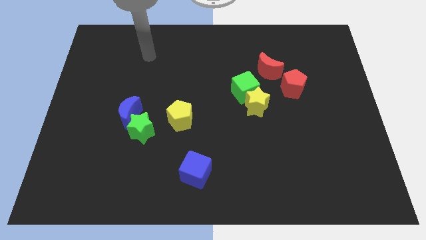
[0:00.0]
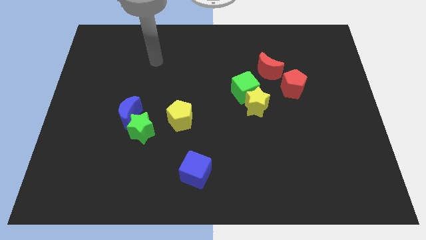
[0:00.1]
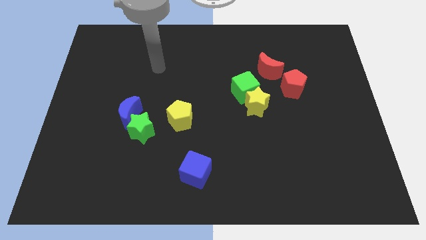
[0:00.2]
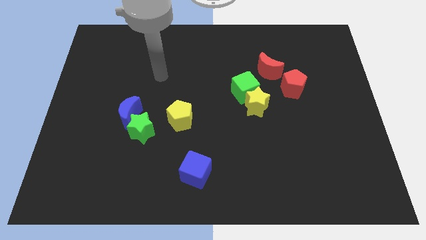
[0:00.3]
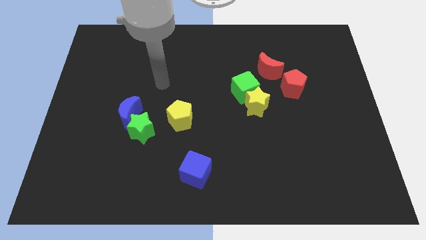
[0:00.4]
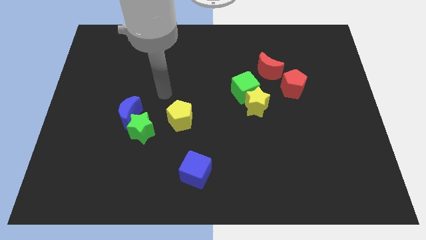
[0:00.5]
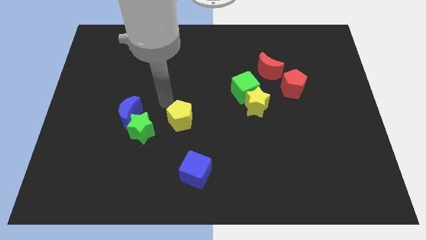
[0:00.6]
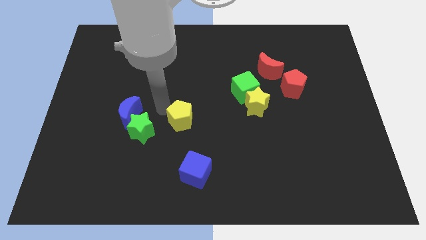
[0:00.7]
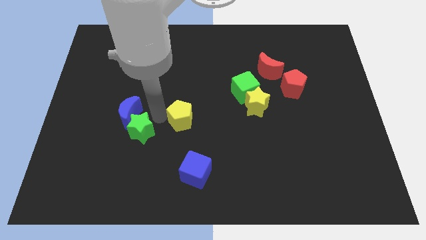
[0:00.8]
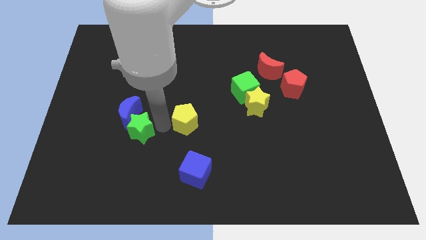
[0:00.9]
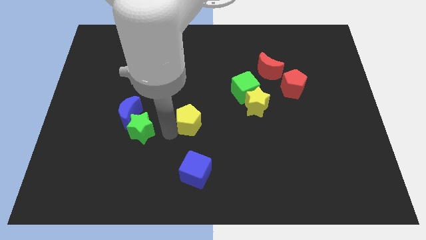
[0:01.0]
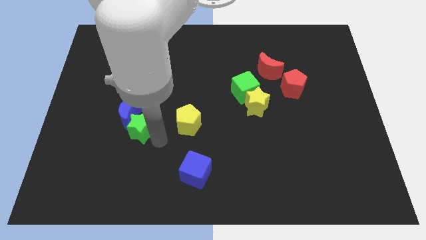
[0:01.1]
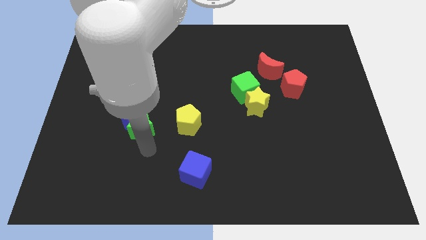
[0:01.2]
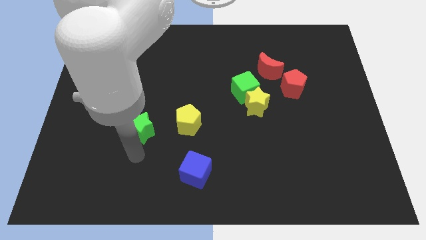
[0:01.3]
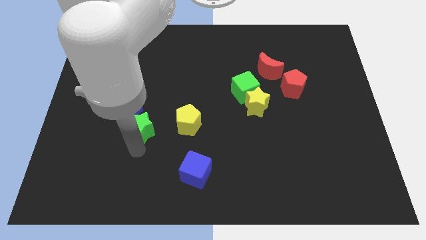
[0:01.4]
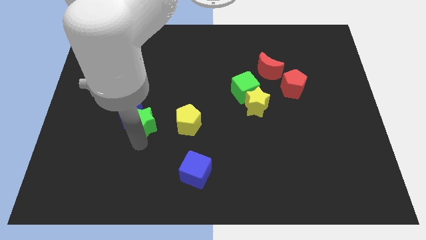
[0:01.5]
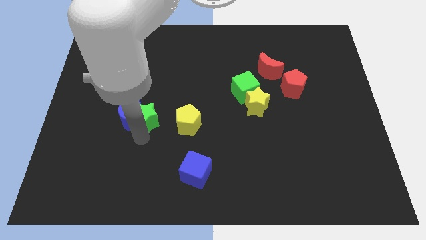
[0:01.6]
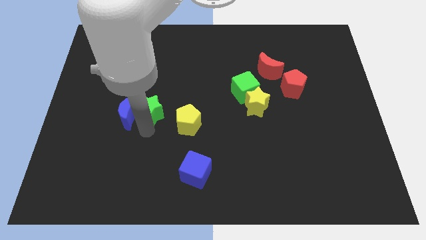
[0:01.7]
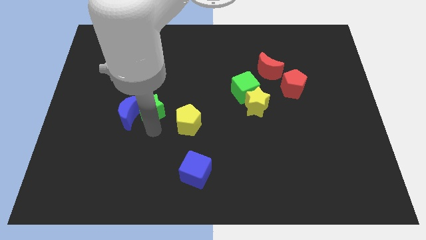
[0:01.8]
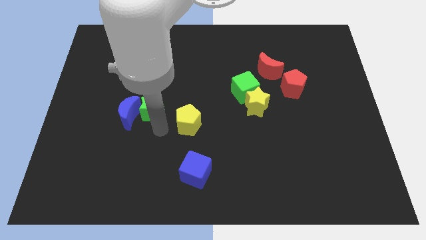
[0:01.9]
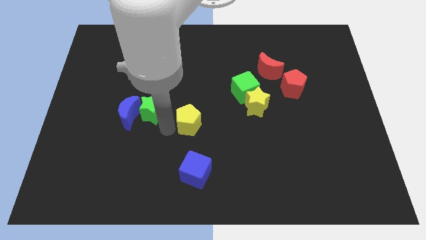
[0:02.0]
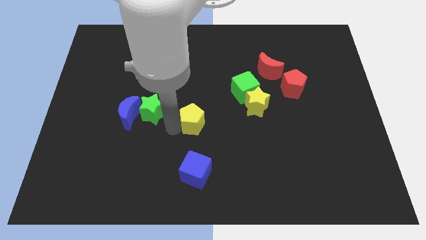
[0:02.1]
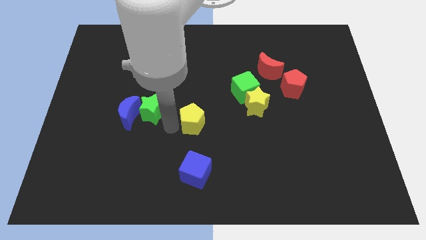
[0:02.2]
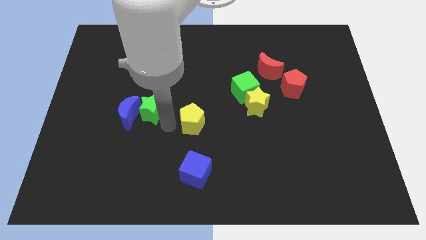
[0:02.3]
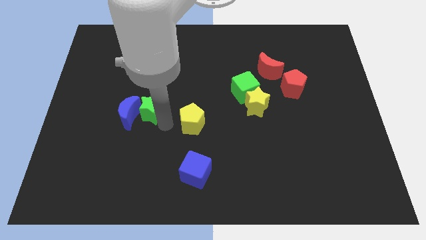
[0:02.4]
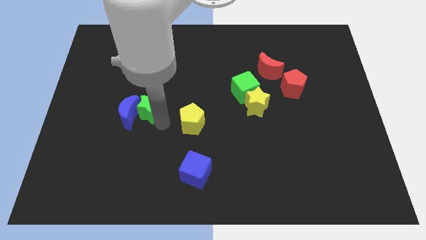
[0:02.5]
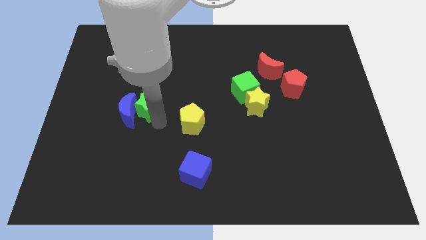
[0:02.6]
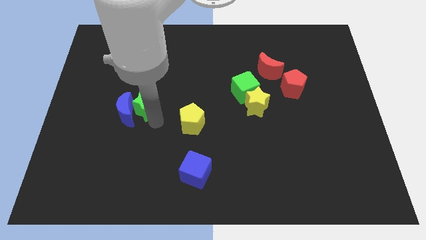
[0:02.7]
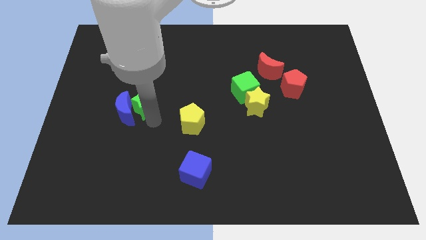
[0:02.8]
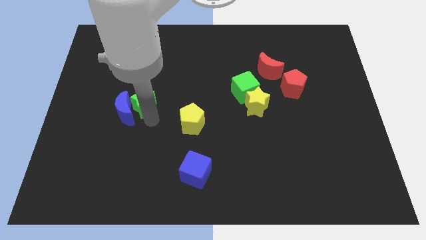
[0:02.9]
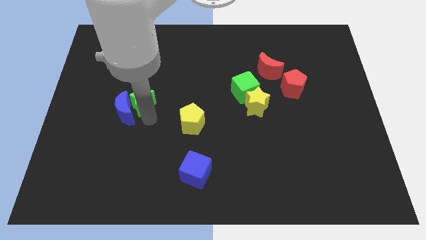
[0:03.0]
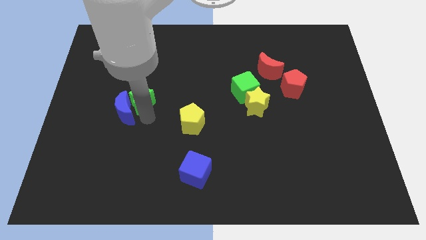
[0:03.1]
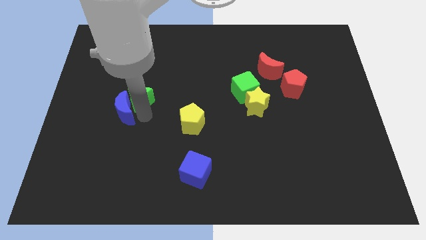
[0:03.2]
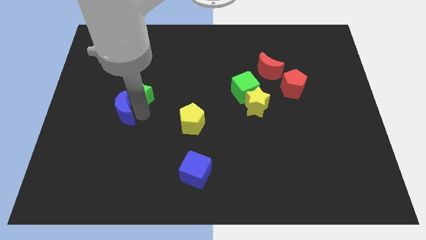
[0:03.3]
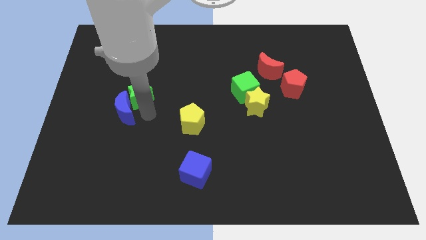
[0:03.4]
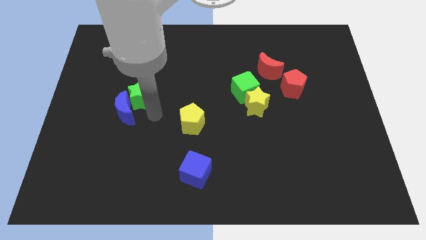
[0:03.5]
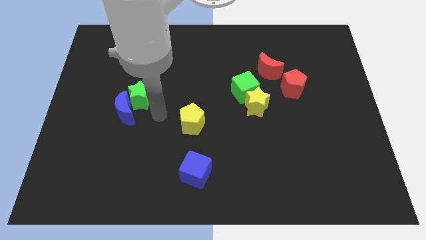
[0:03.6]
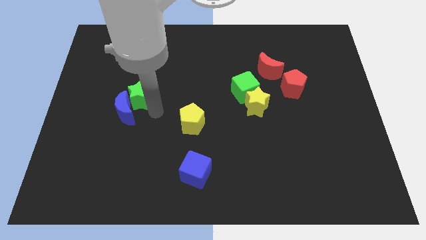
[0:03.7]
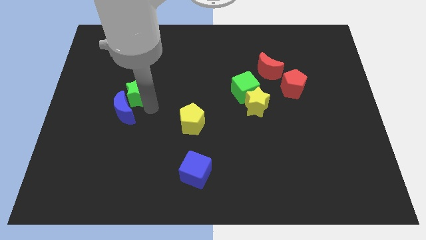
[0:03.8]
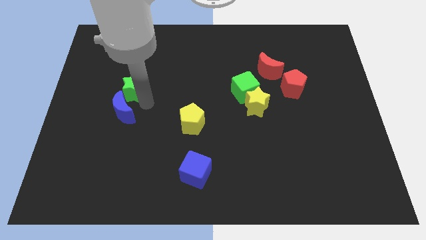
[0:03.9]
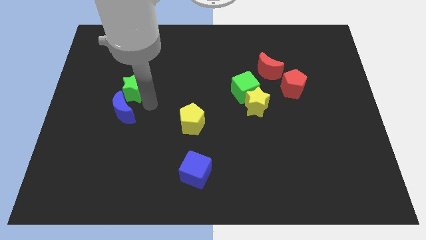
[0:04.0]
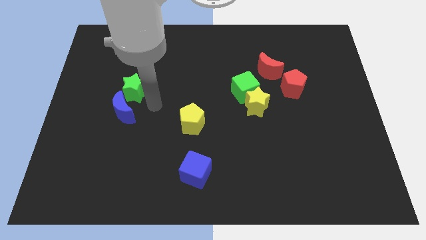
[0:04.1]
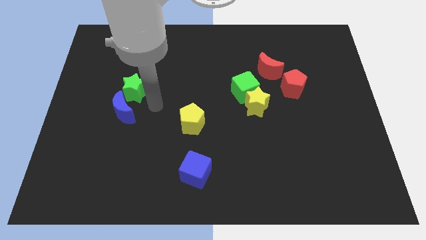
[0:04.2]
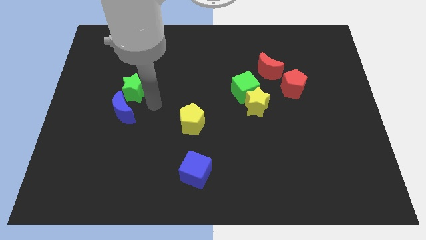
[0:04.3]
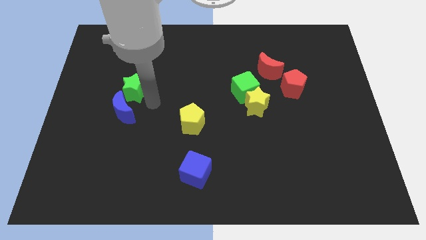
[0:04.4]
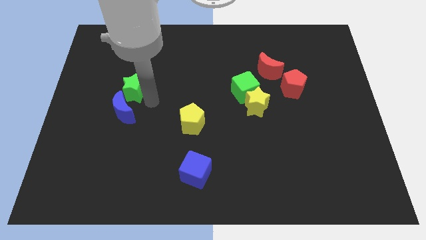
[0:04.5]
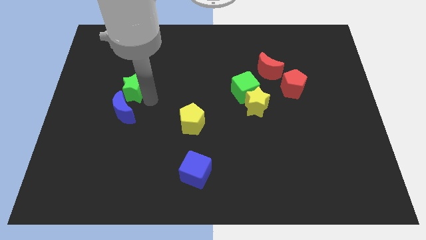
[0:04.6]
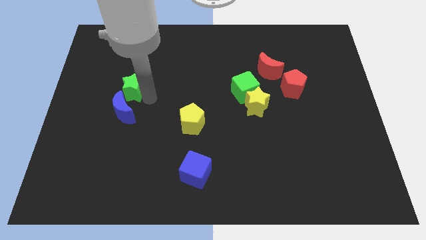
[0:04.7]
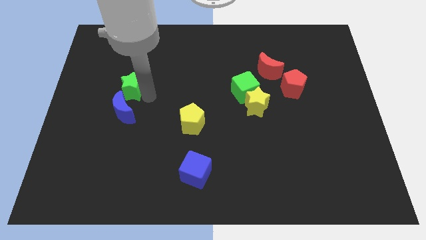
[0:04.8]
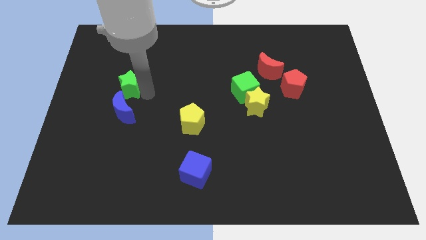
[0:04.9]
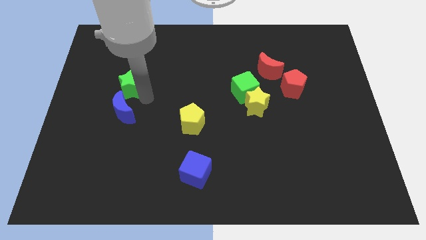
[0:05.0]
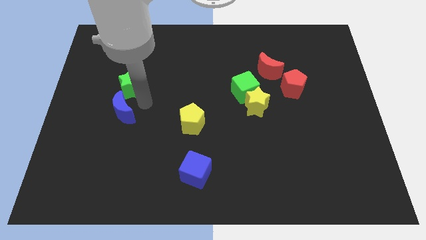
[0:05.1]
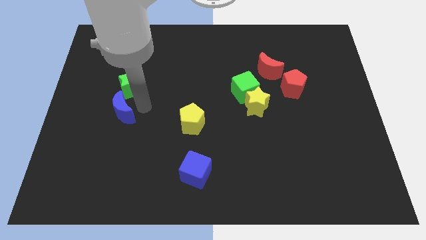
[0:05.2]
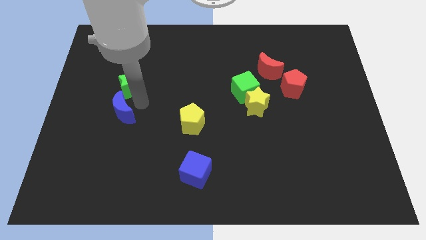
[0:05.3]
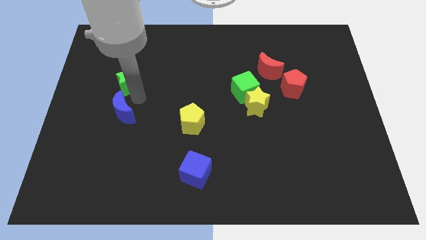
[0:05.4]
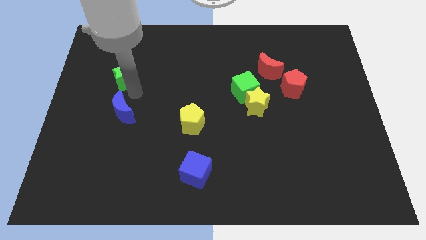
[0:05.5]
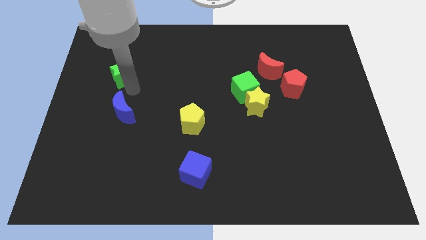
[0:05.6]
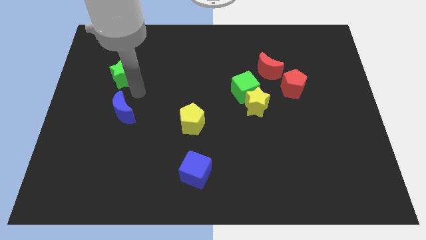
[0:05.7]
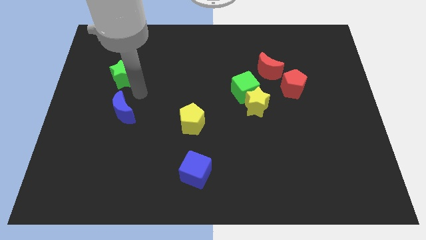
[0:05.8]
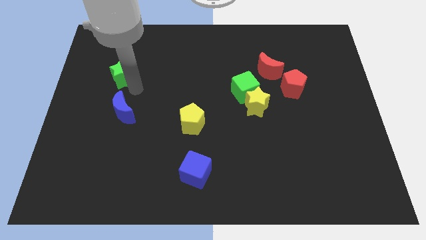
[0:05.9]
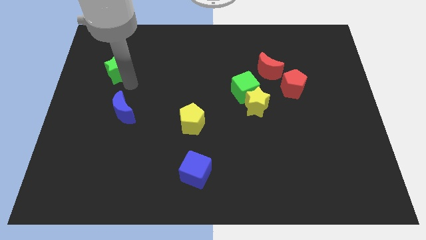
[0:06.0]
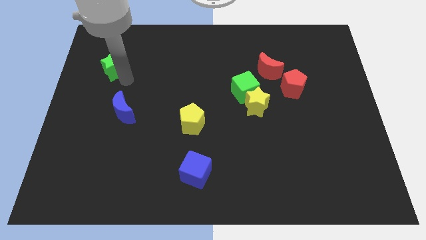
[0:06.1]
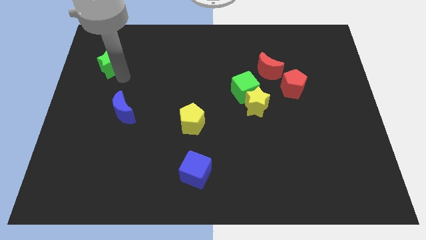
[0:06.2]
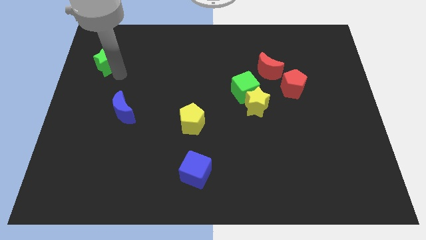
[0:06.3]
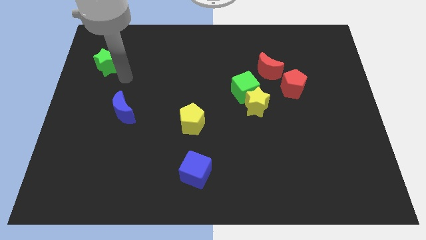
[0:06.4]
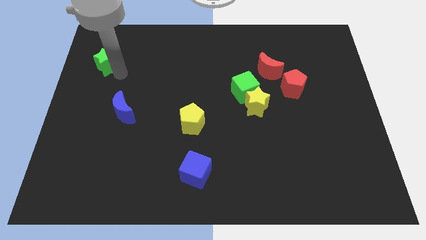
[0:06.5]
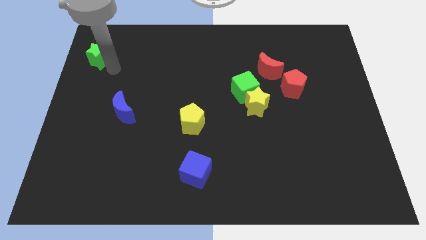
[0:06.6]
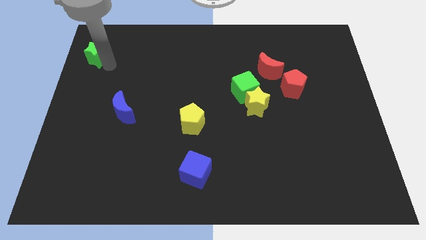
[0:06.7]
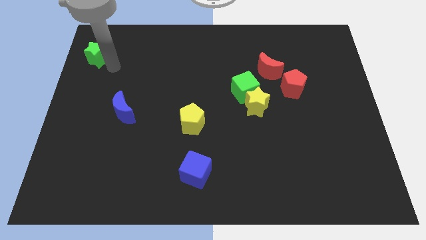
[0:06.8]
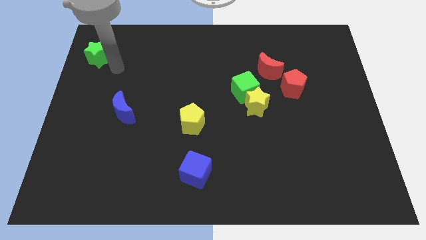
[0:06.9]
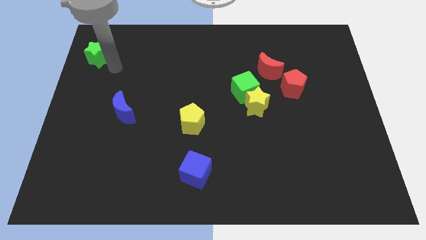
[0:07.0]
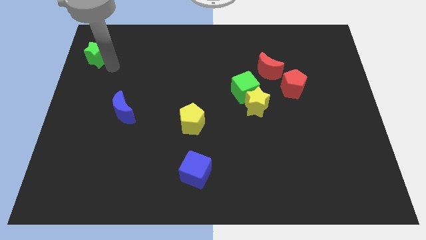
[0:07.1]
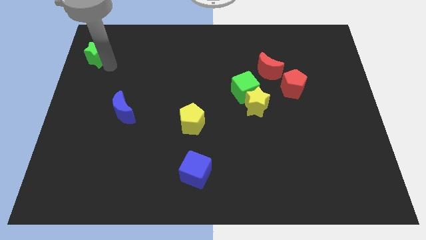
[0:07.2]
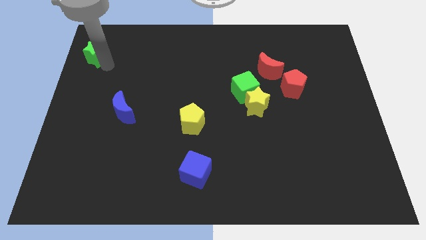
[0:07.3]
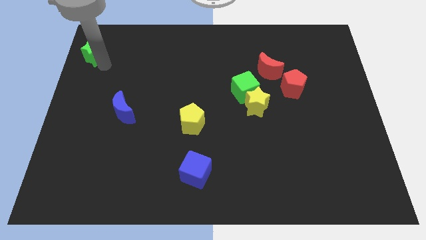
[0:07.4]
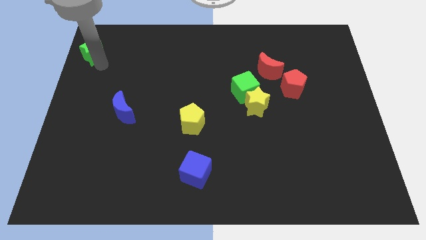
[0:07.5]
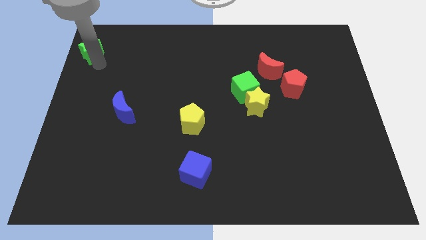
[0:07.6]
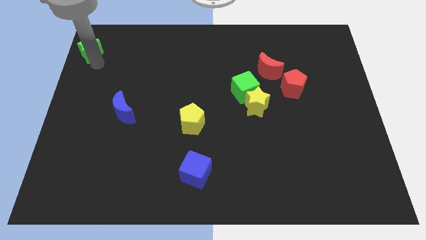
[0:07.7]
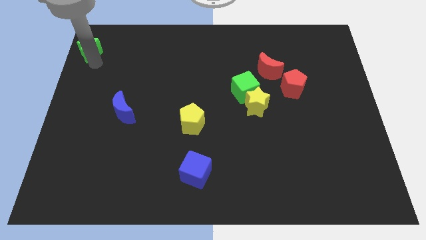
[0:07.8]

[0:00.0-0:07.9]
move the green star to the top left corner
